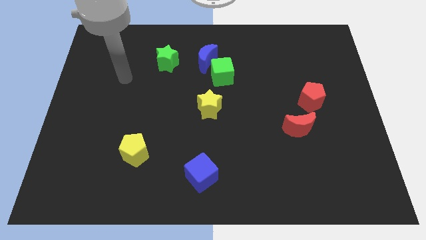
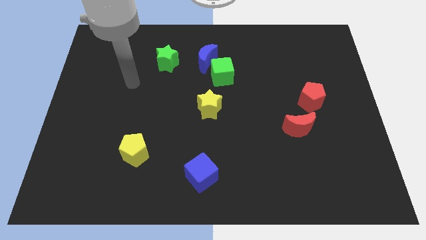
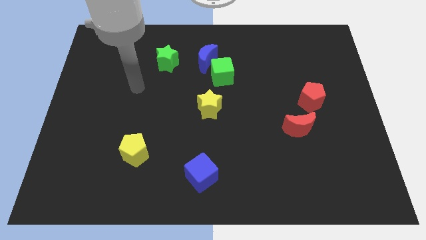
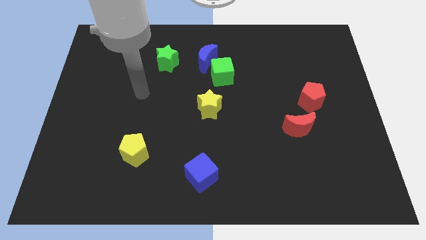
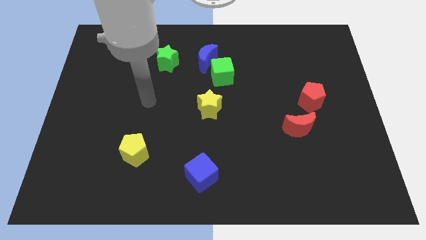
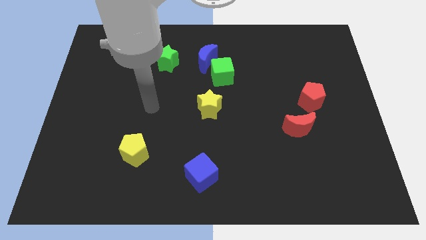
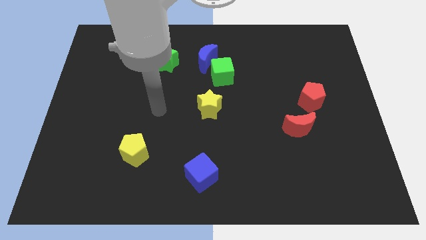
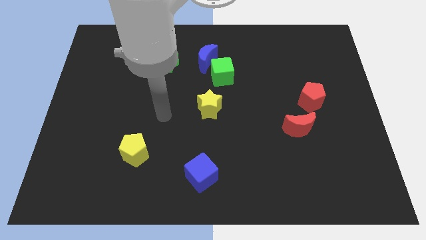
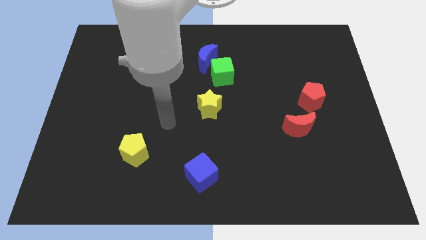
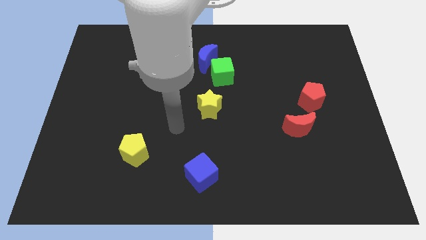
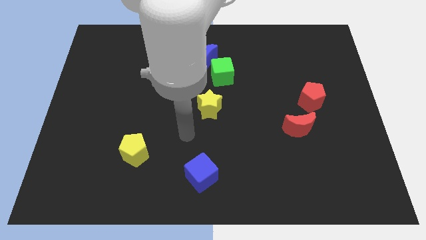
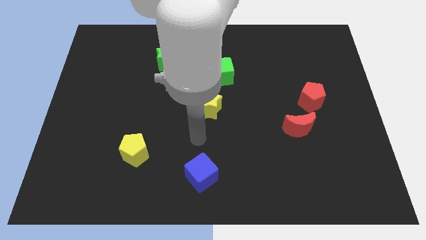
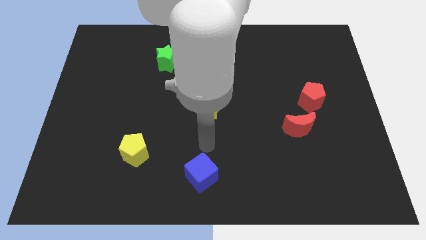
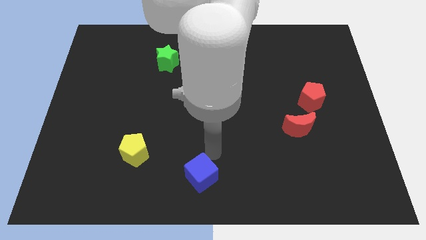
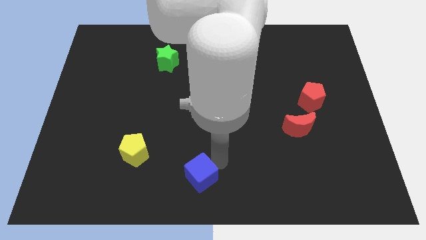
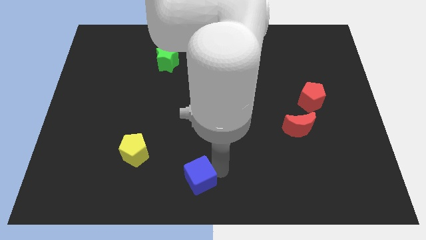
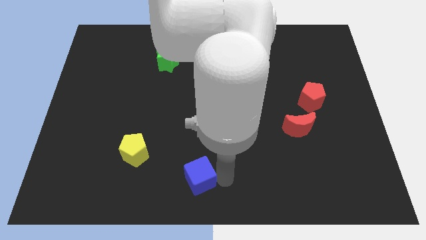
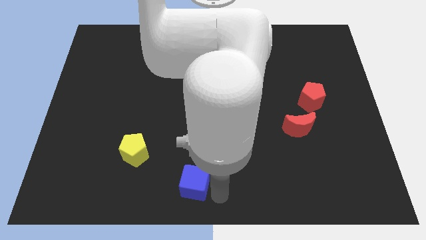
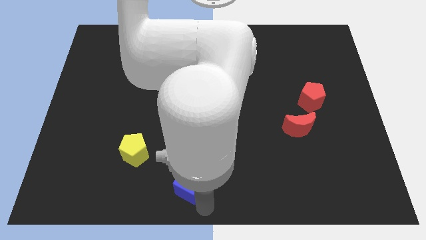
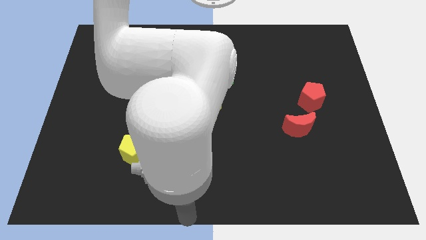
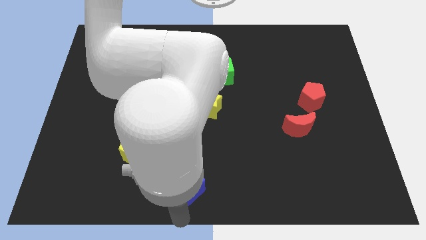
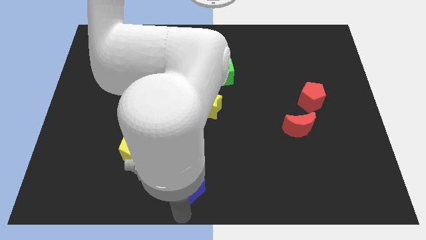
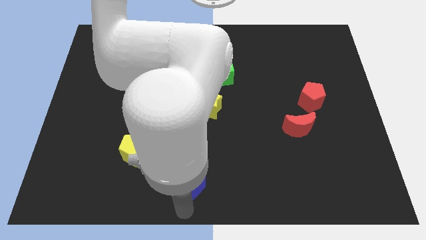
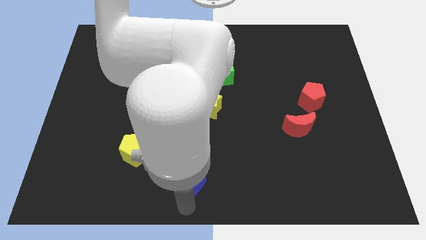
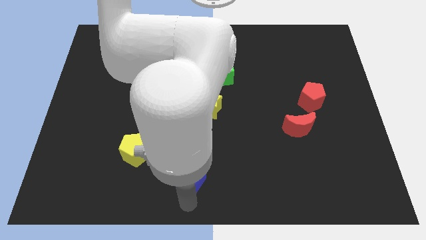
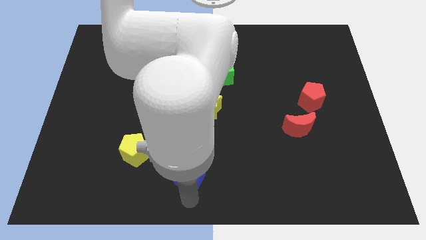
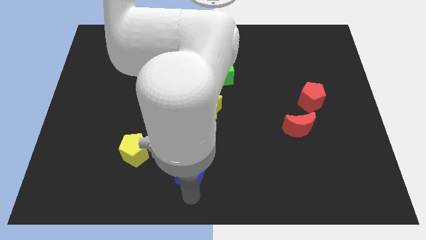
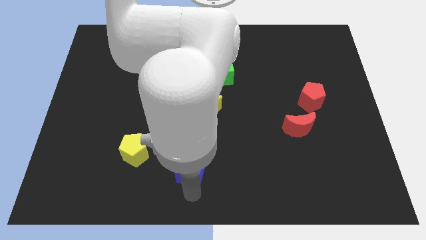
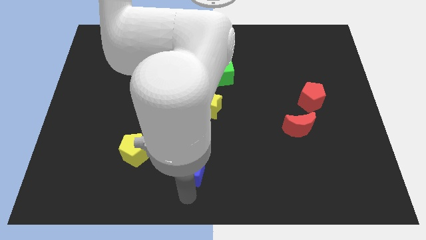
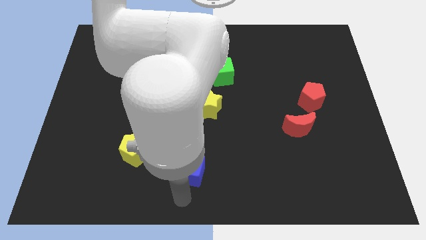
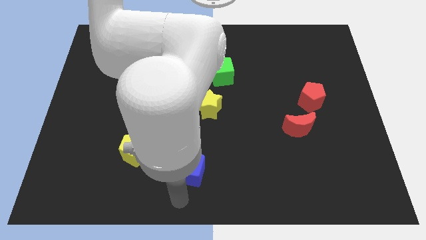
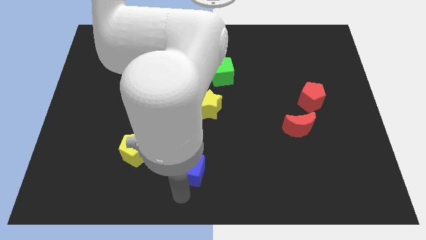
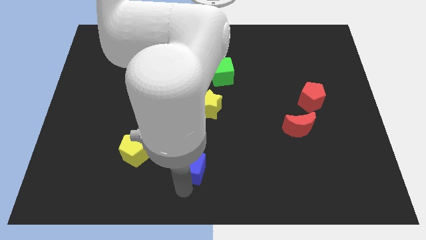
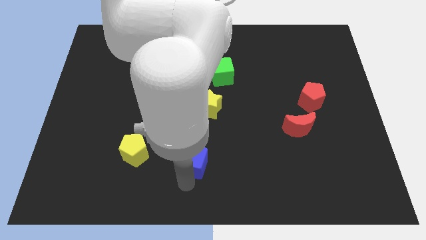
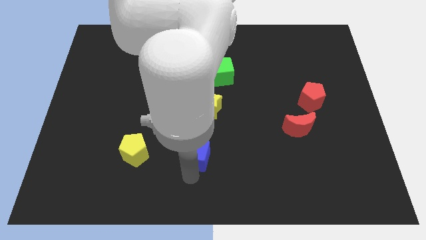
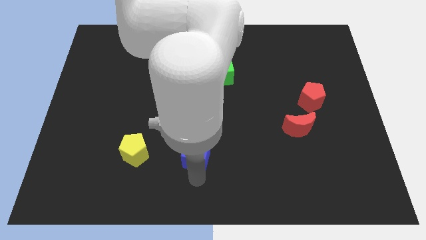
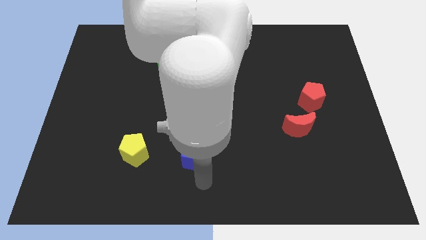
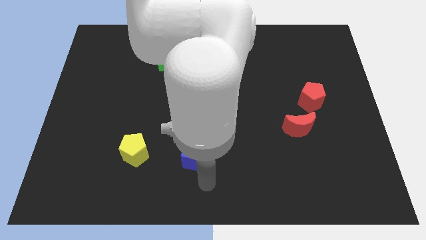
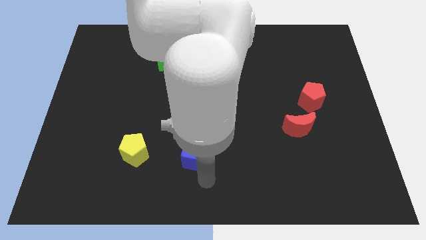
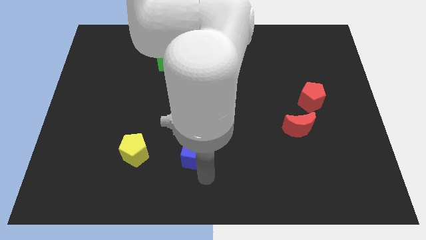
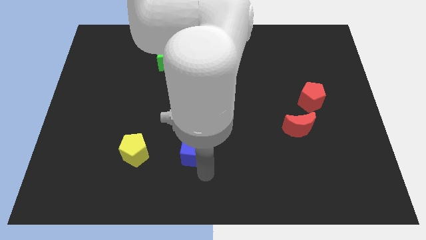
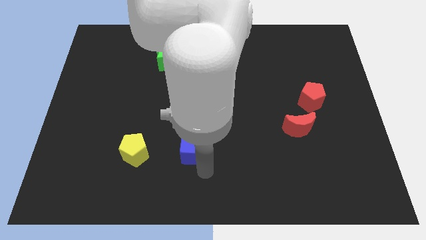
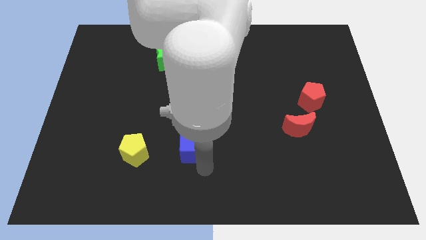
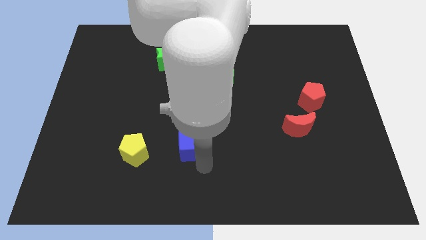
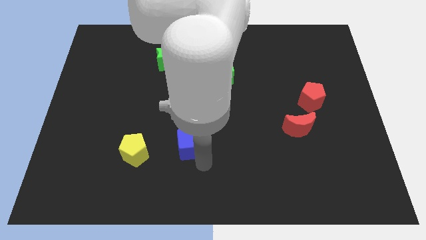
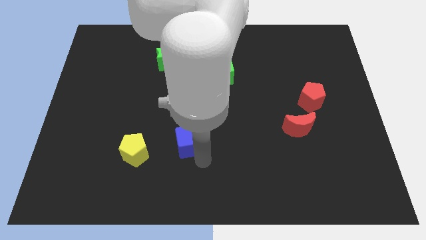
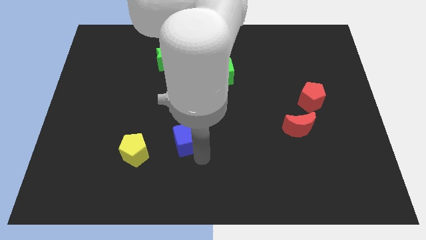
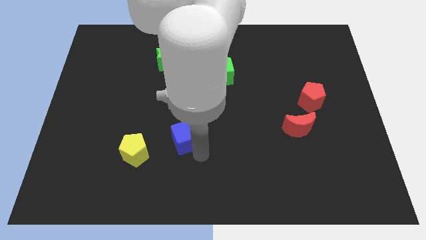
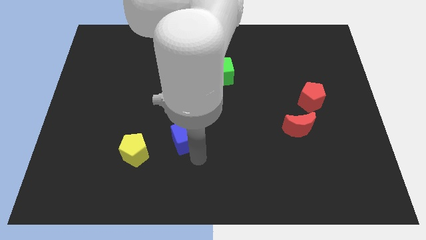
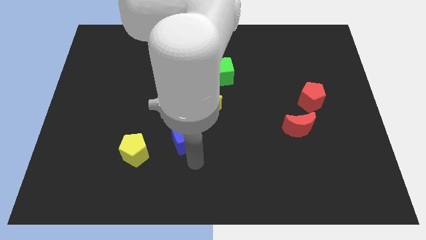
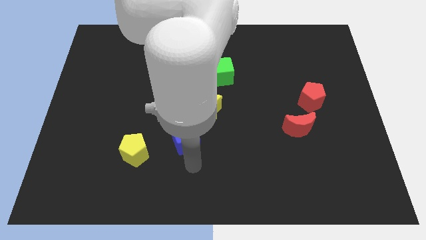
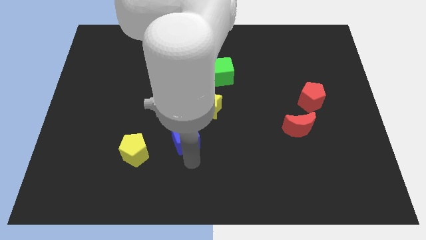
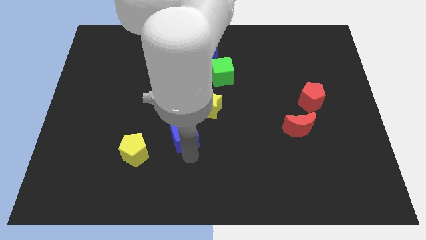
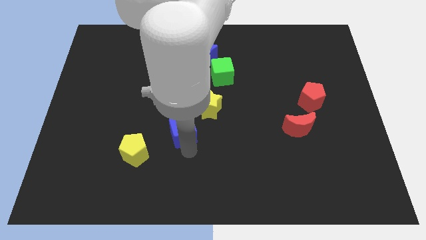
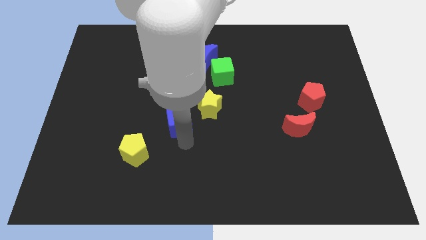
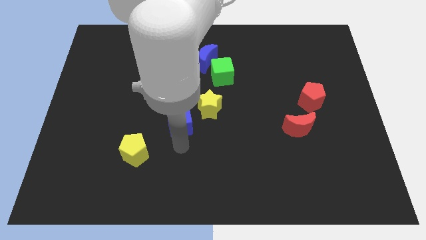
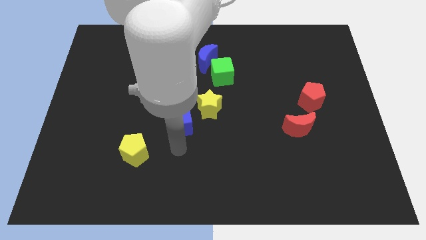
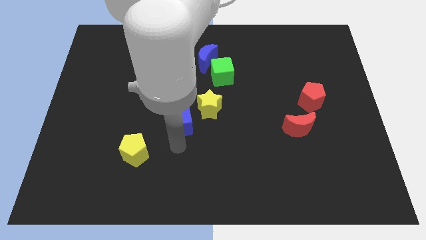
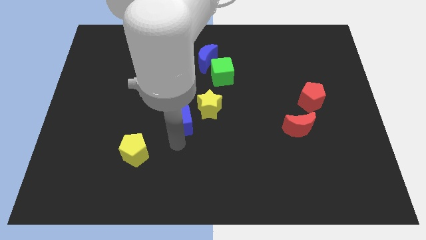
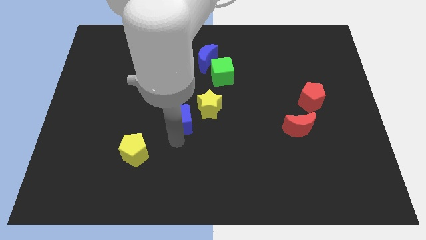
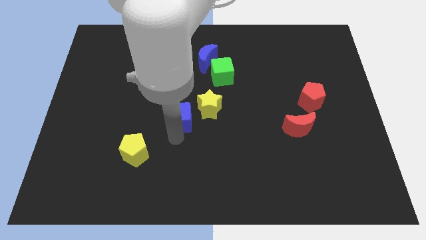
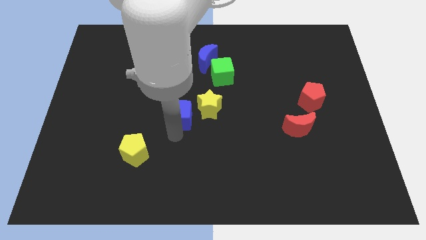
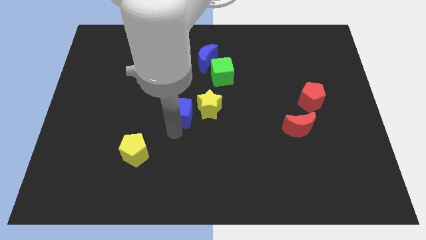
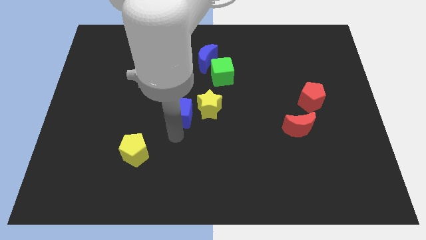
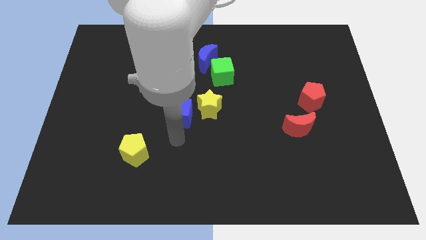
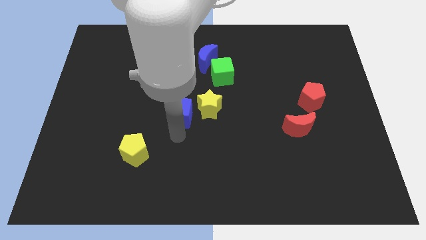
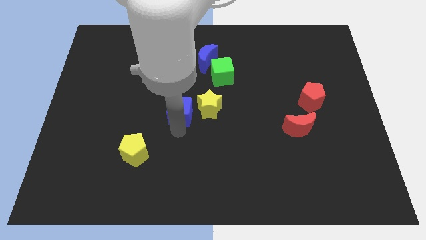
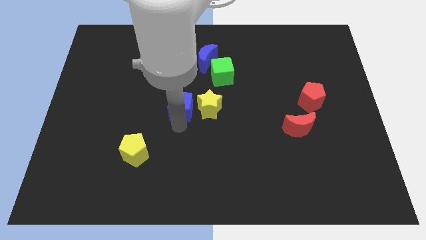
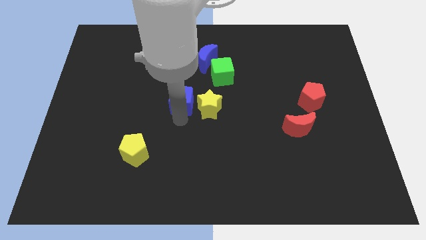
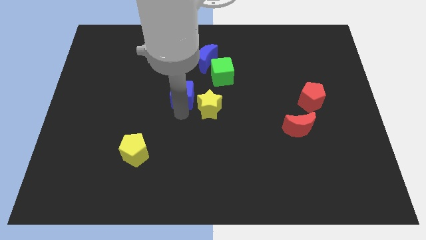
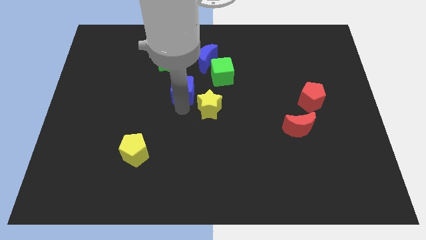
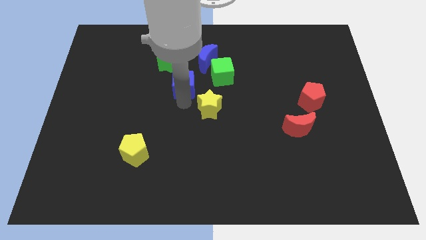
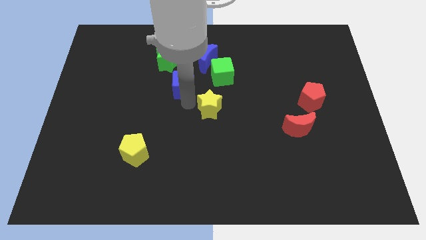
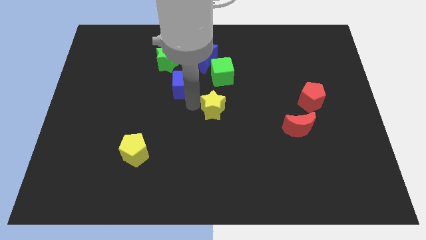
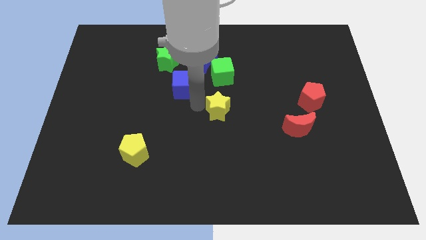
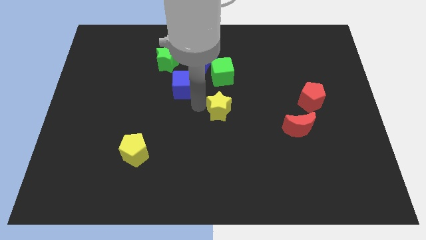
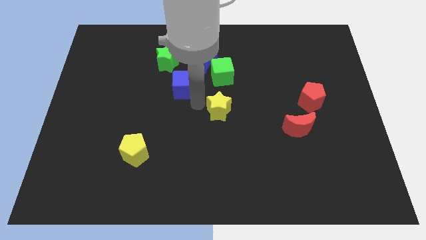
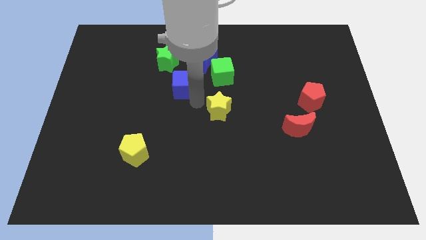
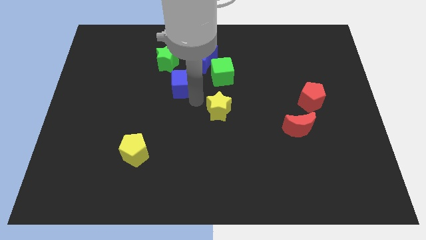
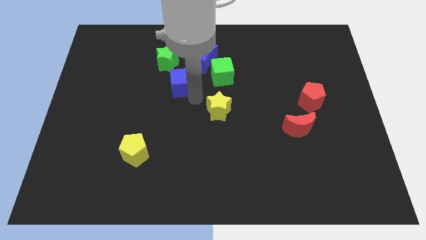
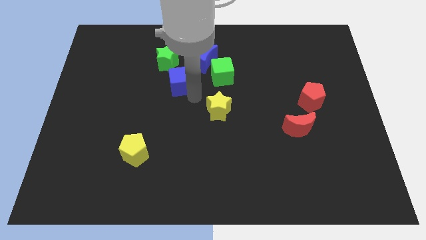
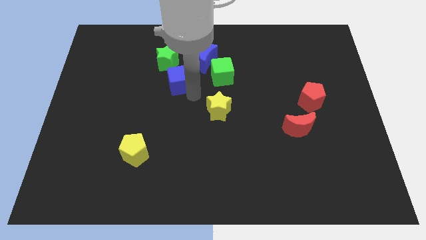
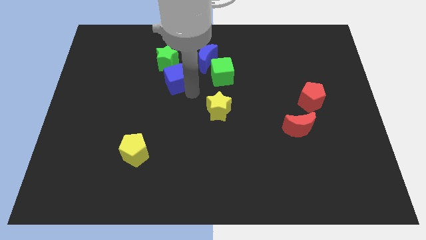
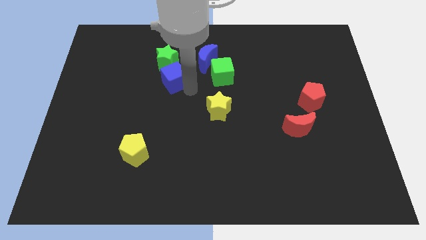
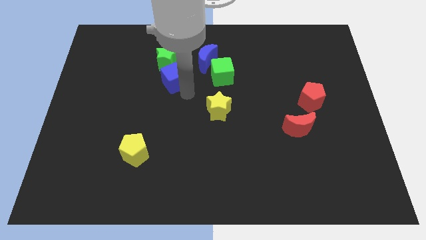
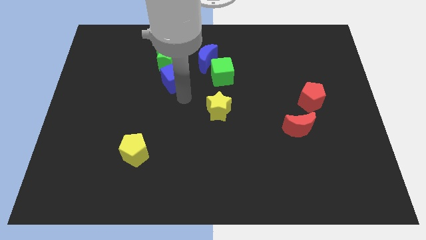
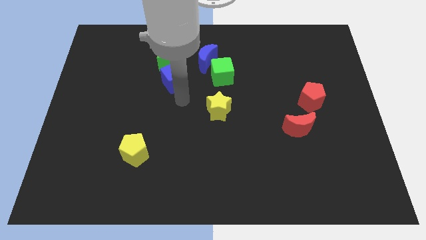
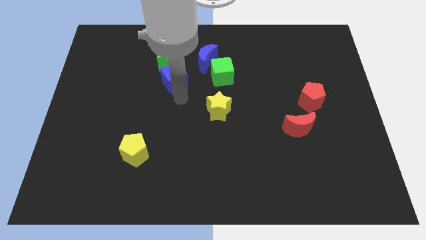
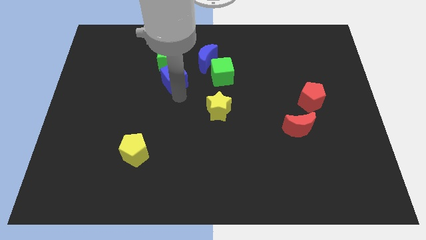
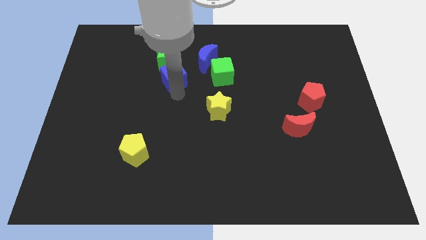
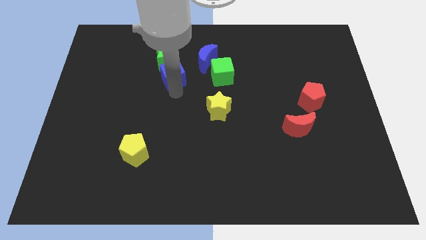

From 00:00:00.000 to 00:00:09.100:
slide the blue cube towards the green star
